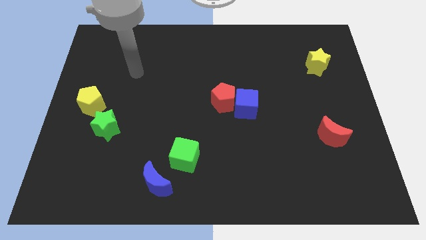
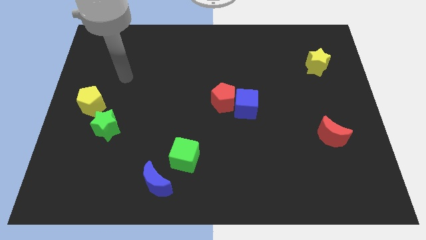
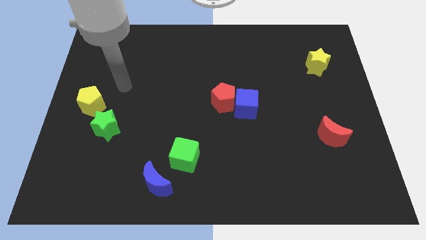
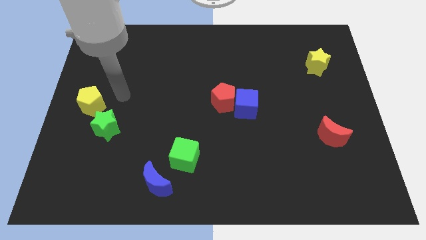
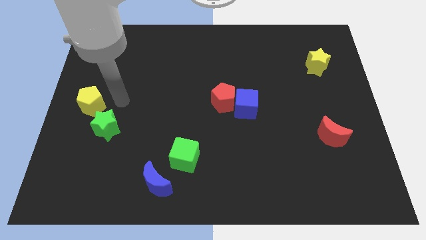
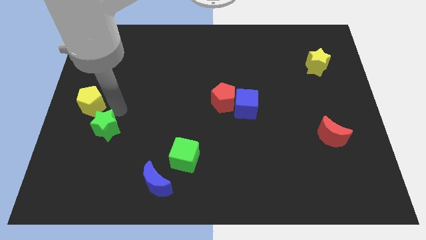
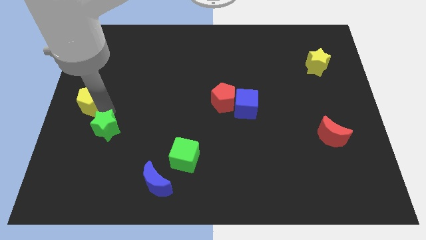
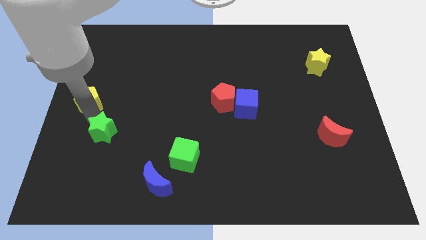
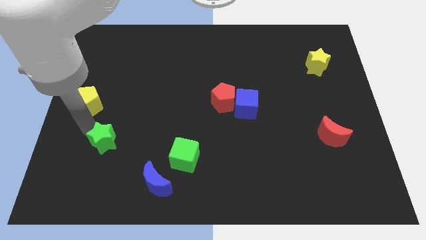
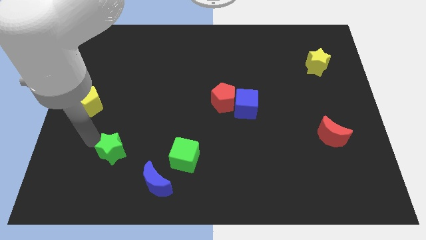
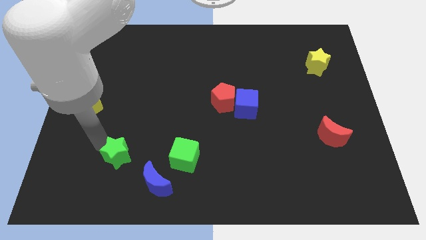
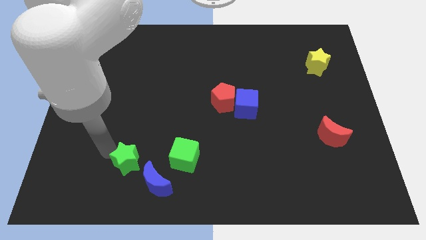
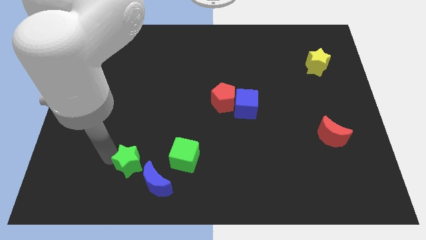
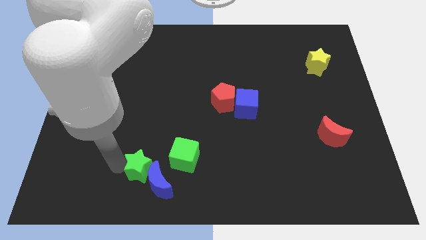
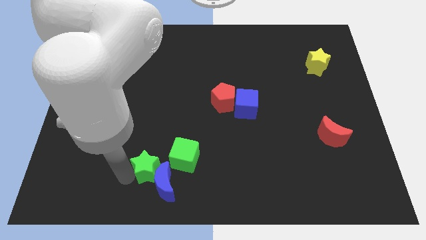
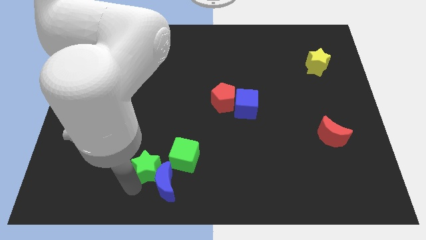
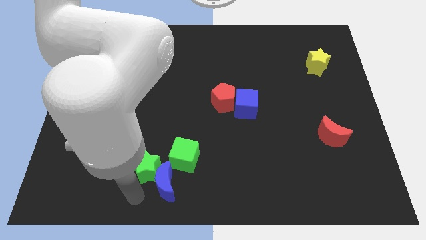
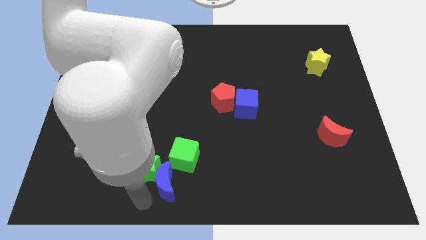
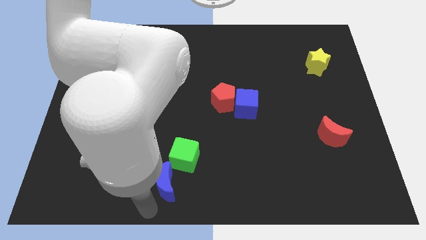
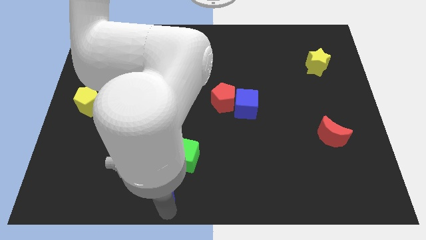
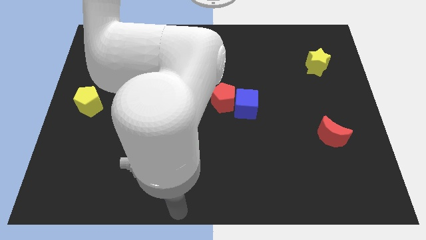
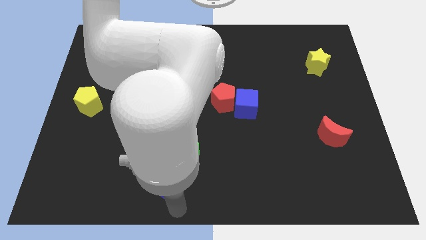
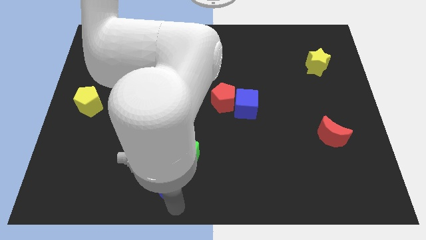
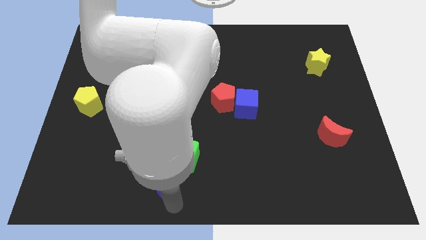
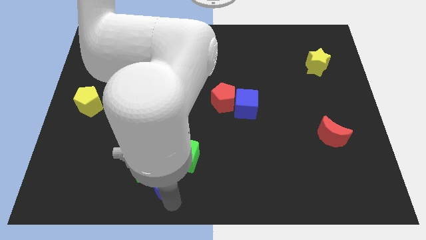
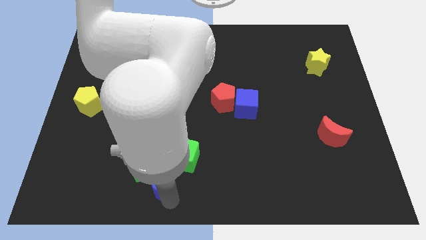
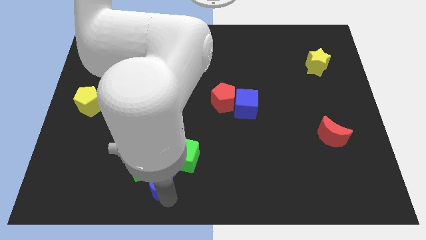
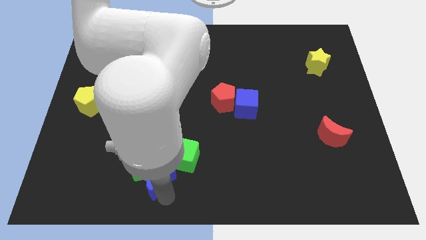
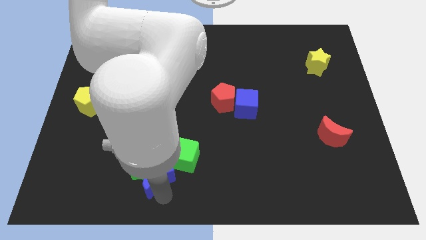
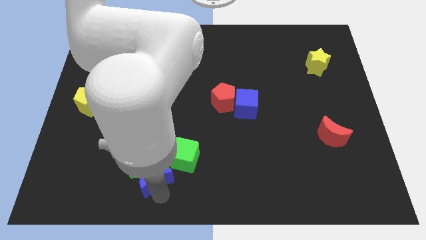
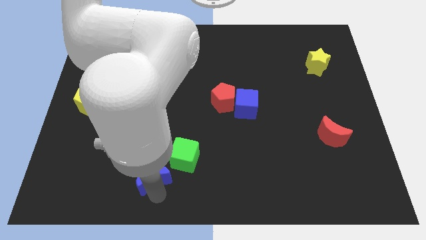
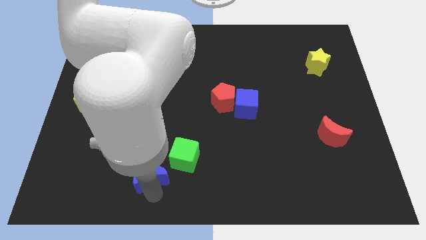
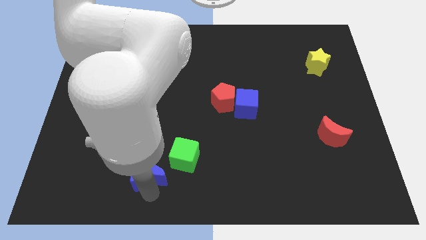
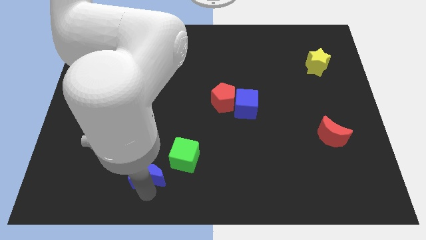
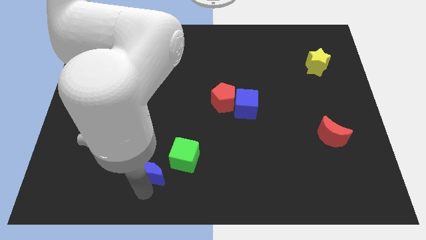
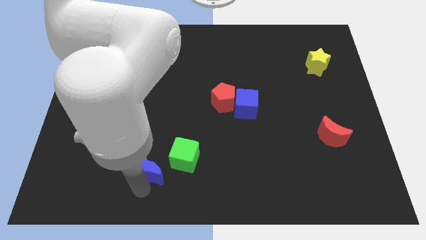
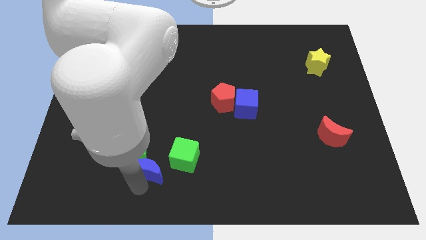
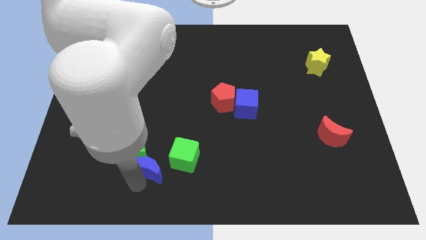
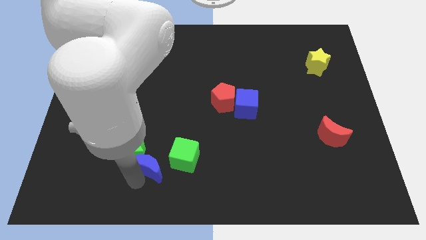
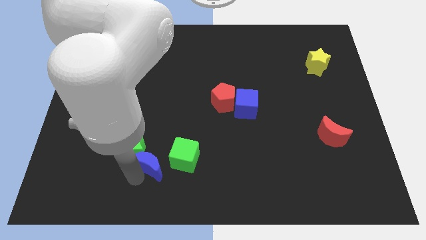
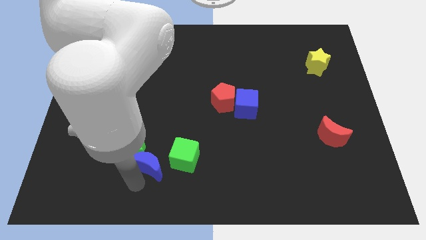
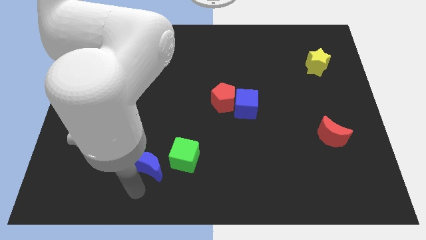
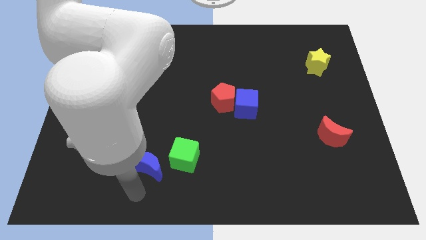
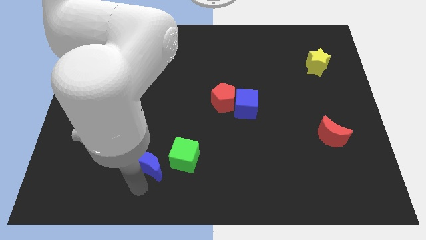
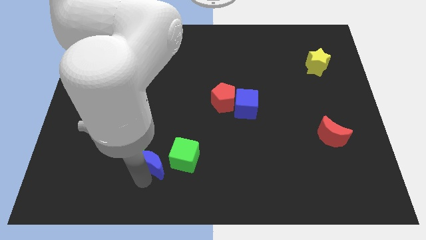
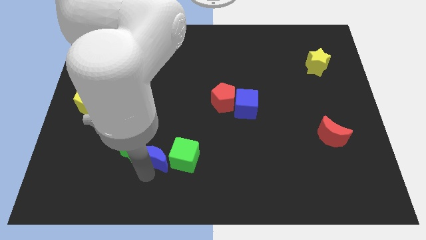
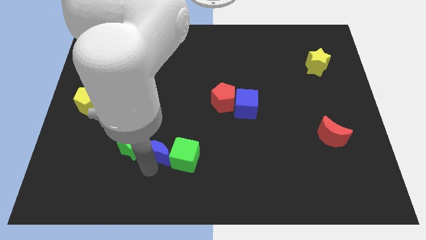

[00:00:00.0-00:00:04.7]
push the blue moon slightly up

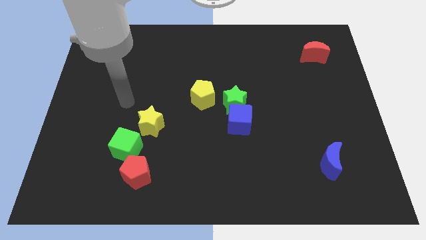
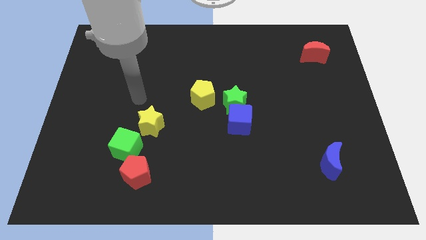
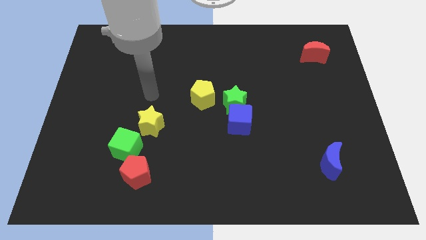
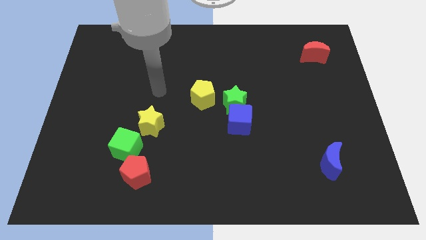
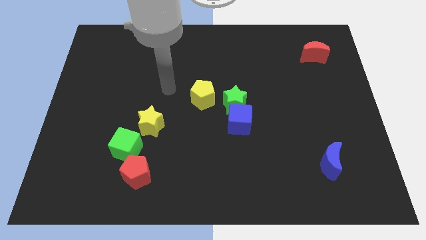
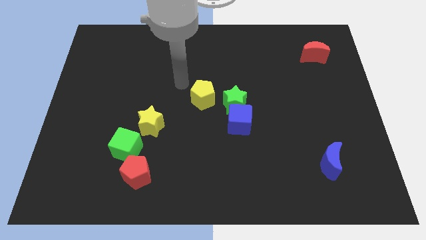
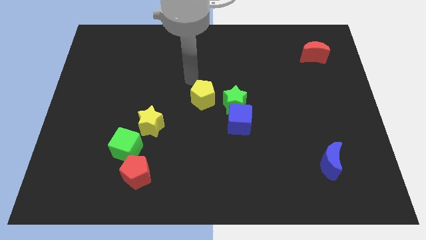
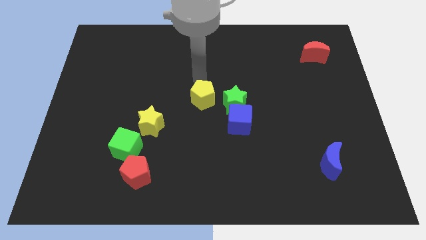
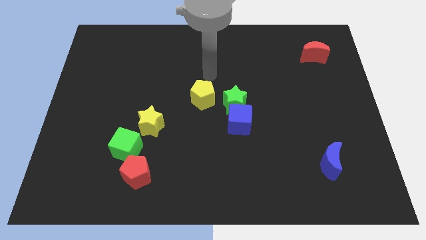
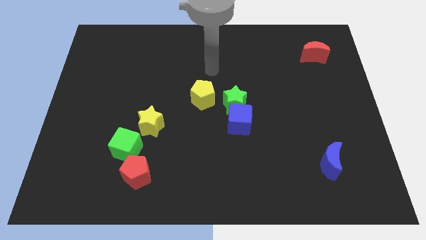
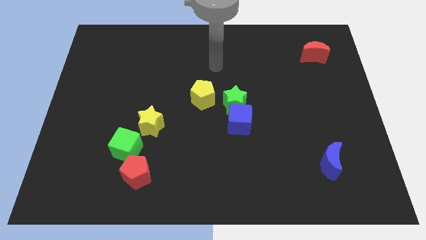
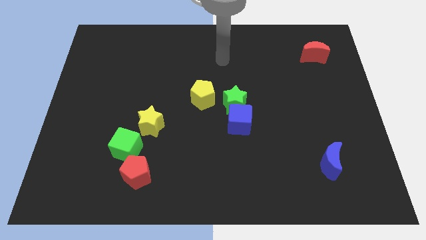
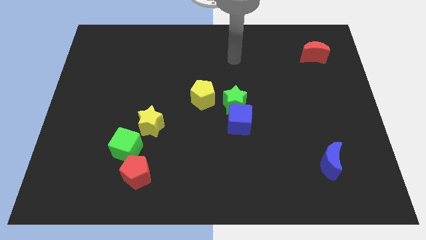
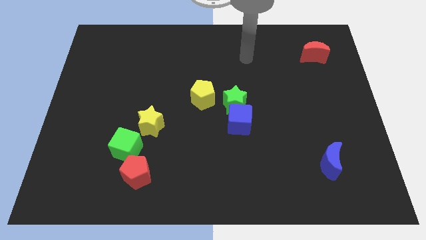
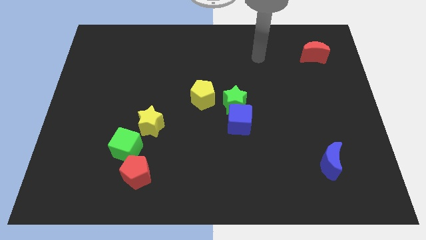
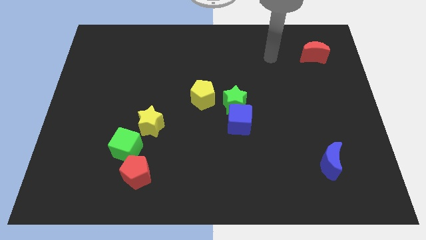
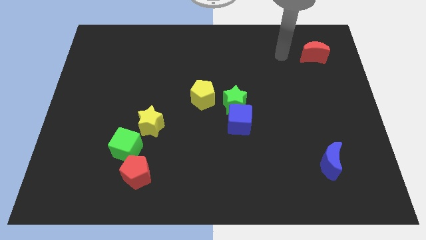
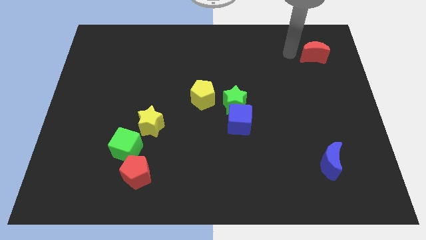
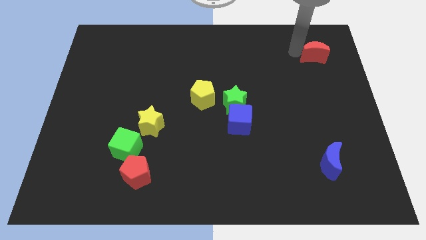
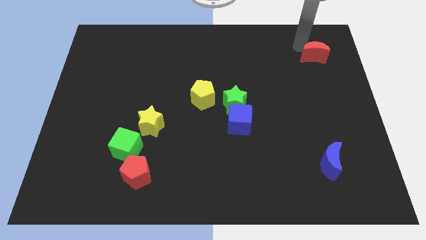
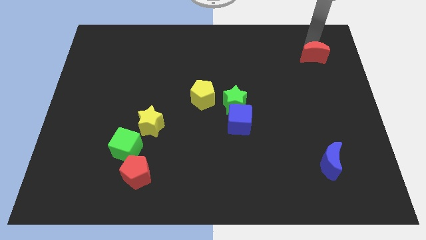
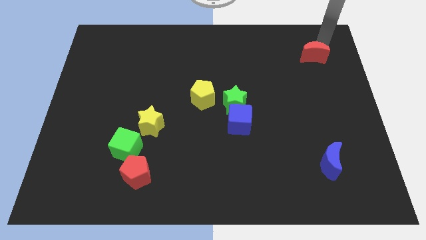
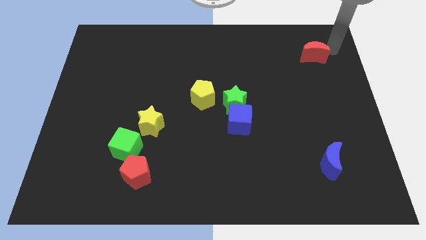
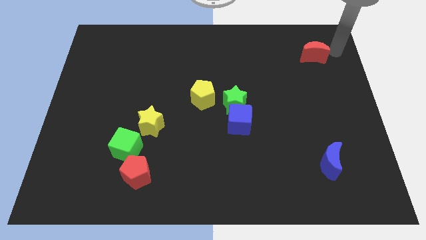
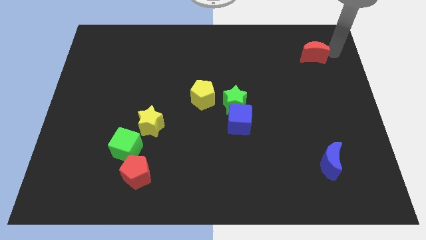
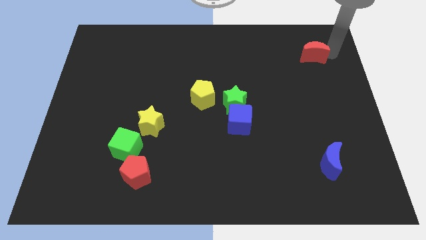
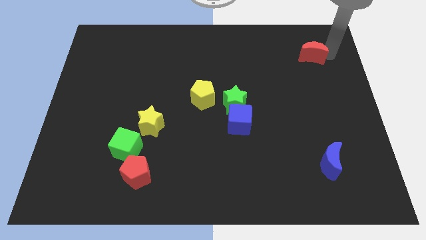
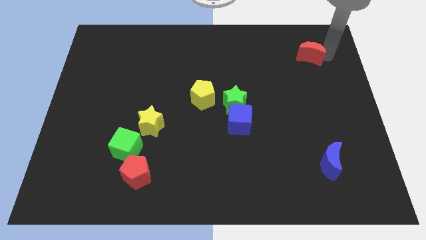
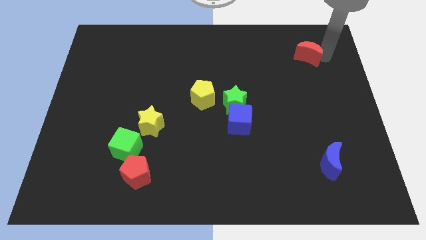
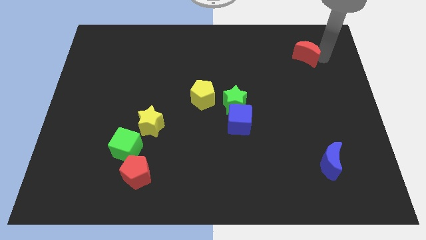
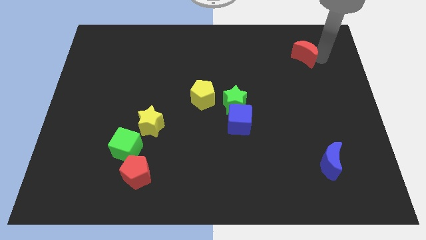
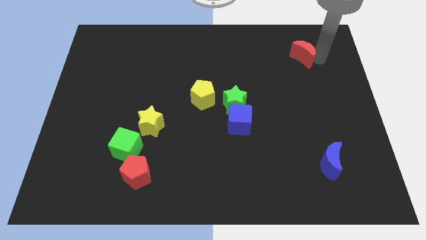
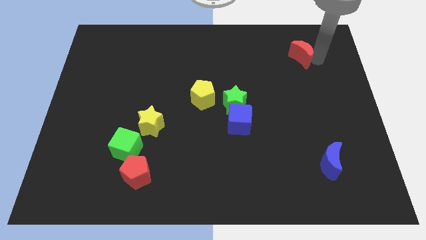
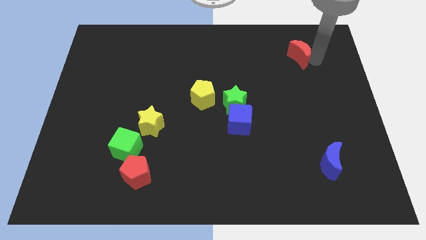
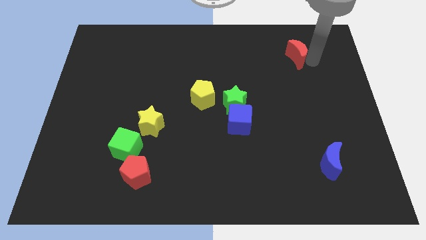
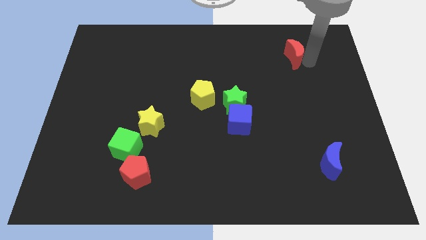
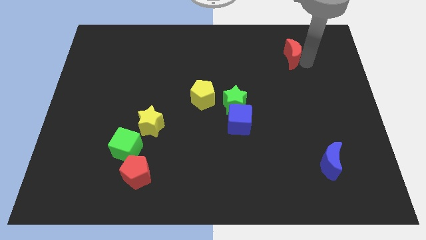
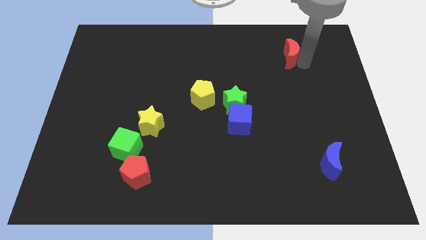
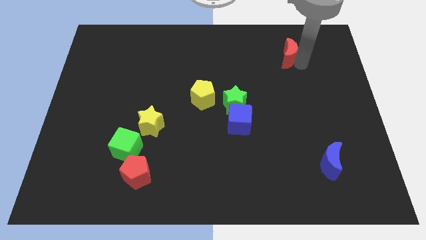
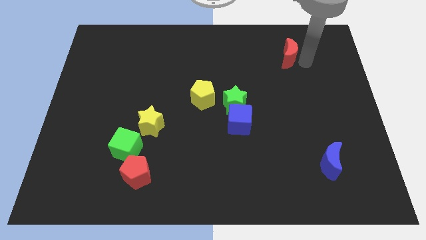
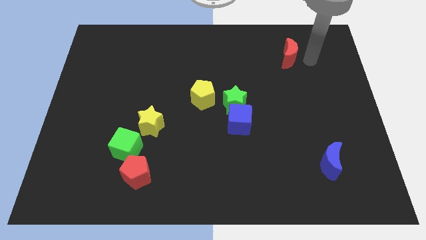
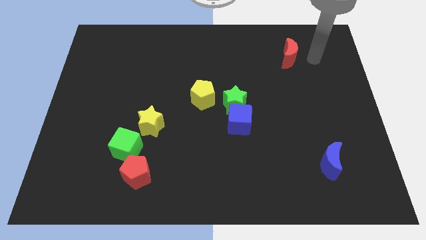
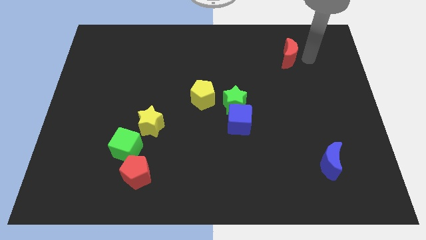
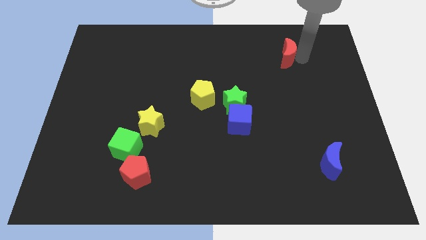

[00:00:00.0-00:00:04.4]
slightly push the red moon left
